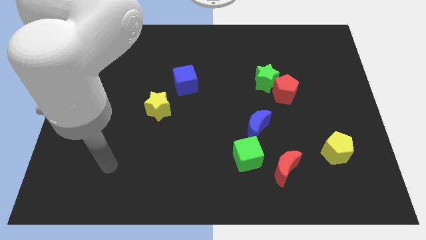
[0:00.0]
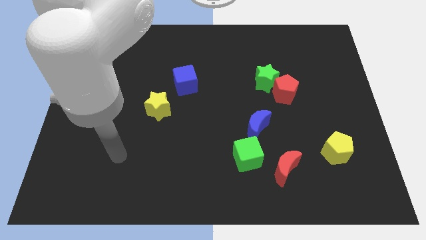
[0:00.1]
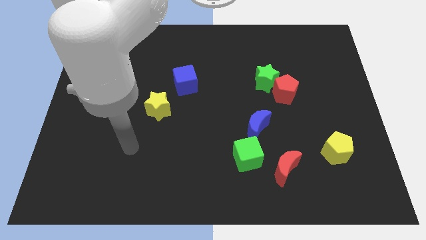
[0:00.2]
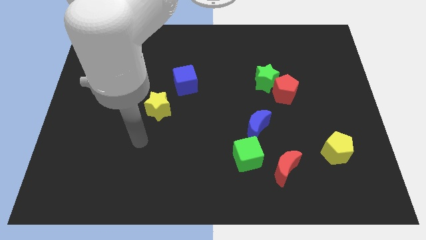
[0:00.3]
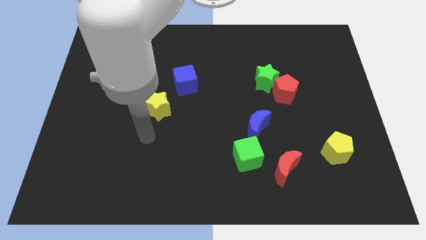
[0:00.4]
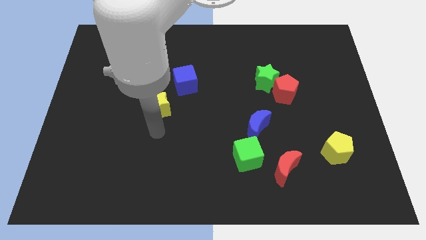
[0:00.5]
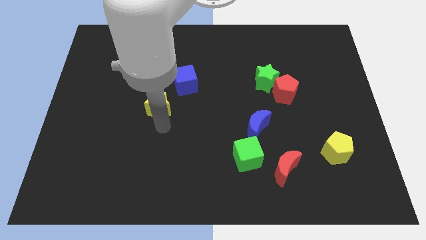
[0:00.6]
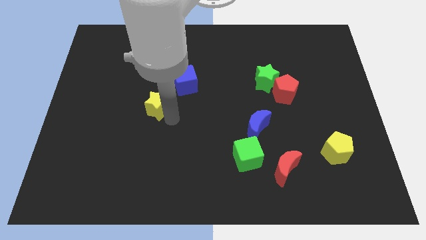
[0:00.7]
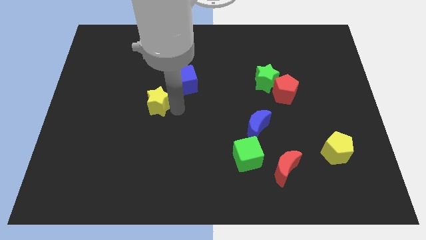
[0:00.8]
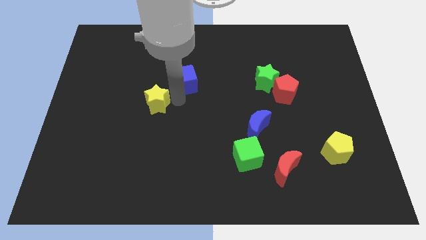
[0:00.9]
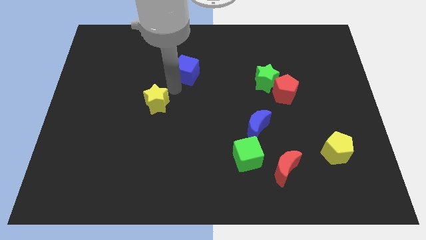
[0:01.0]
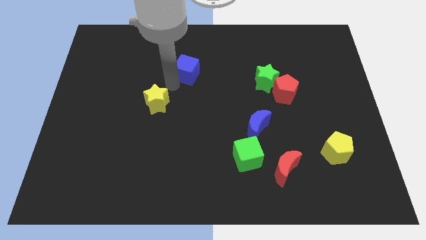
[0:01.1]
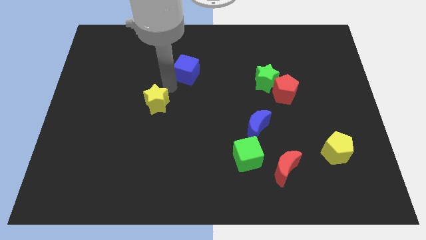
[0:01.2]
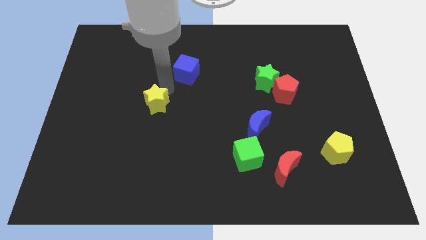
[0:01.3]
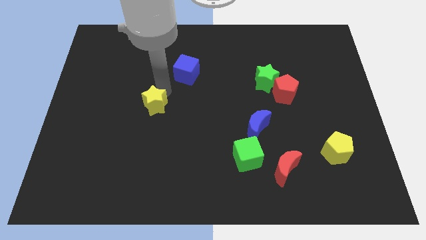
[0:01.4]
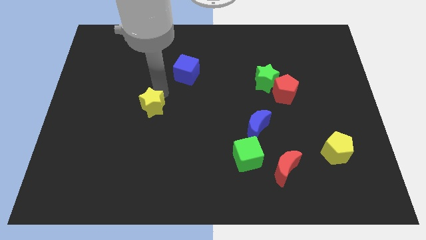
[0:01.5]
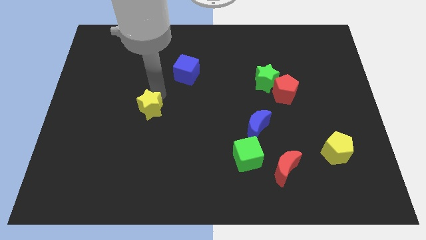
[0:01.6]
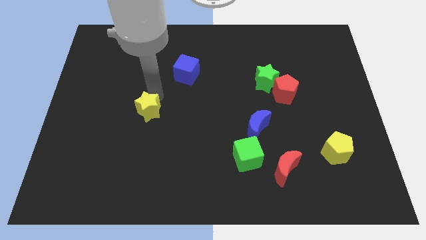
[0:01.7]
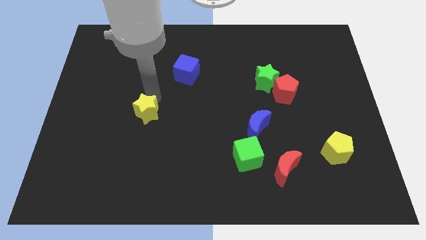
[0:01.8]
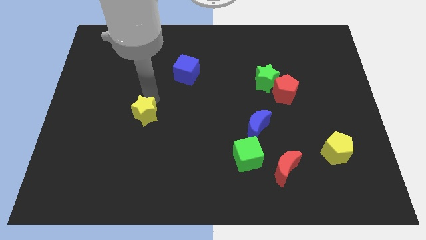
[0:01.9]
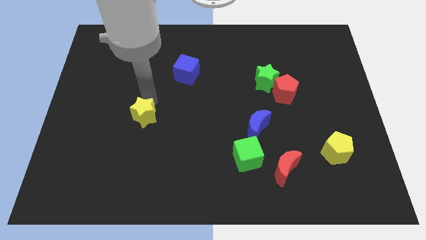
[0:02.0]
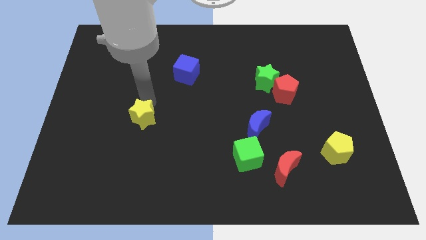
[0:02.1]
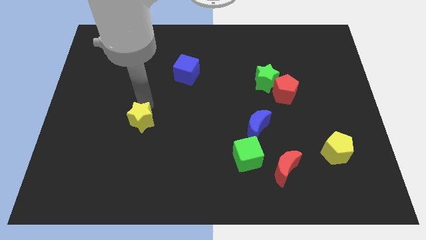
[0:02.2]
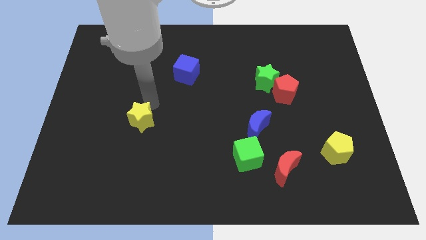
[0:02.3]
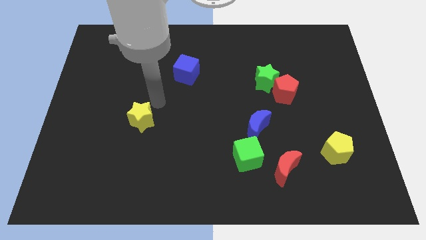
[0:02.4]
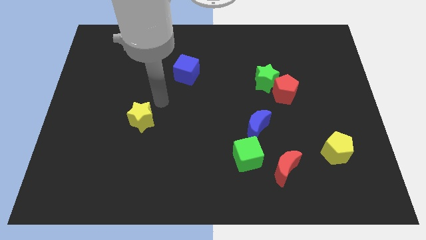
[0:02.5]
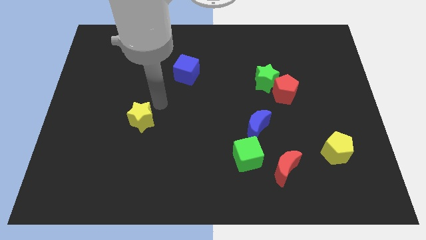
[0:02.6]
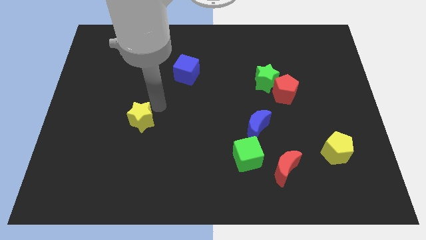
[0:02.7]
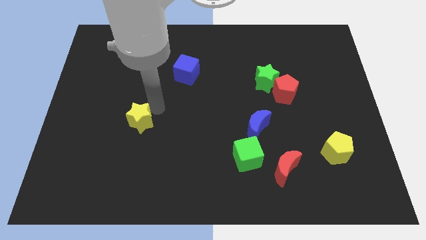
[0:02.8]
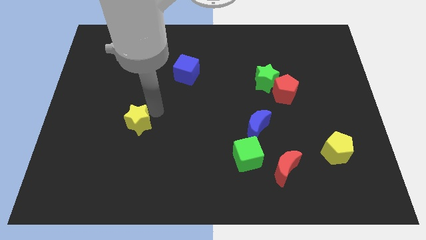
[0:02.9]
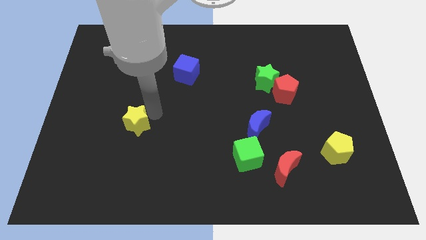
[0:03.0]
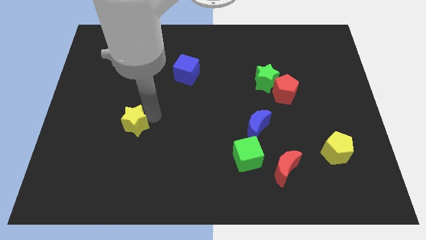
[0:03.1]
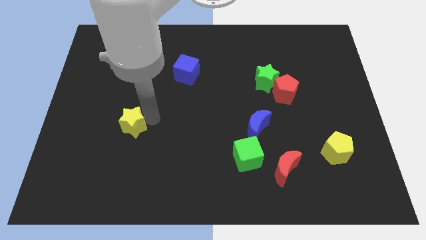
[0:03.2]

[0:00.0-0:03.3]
slide the yellow star a little diagonally down and to the left

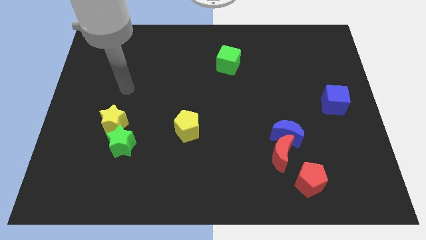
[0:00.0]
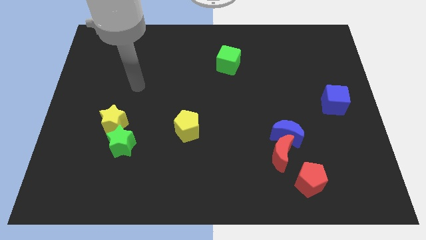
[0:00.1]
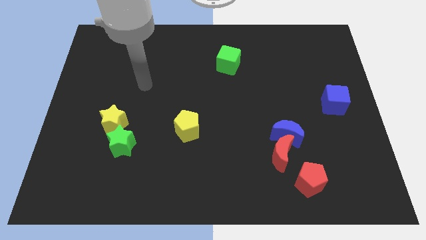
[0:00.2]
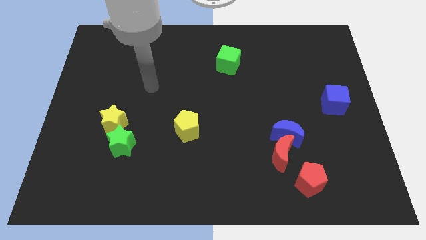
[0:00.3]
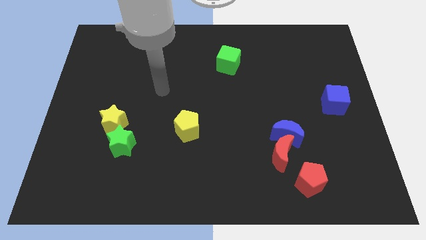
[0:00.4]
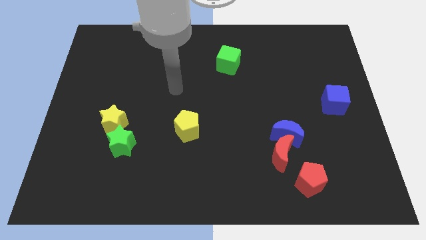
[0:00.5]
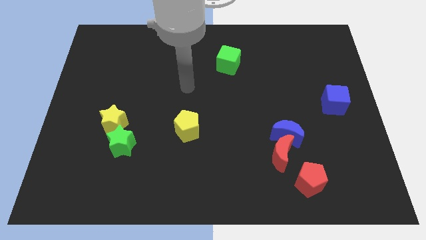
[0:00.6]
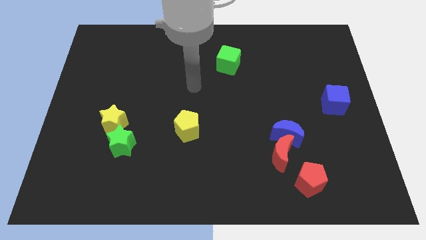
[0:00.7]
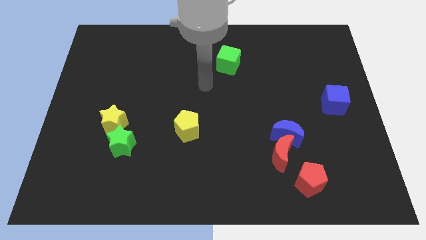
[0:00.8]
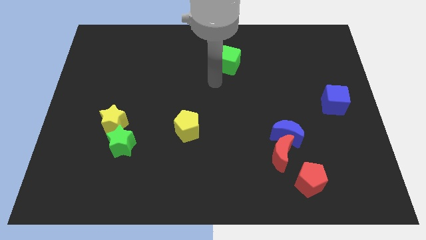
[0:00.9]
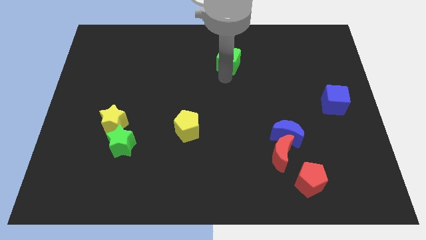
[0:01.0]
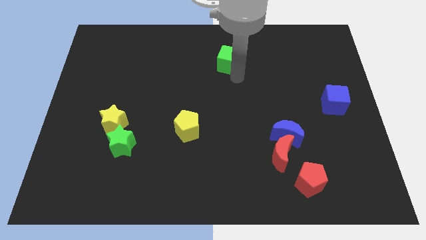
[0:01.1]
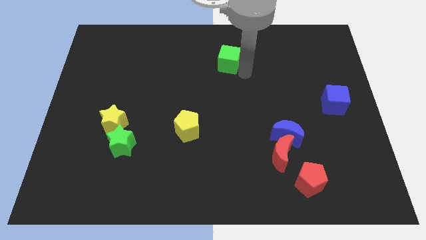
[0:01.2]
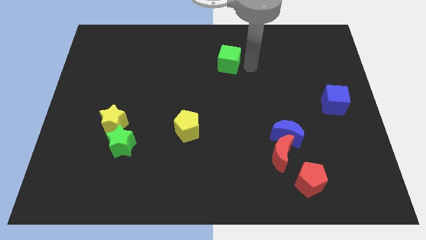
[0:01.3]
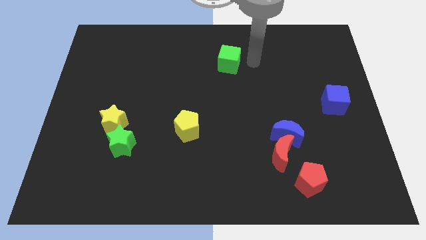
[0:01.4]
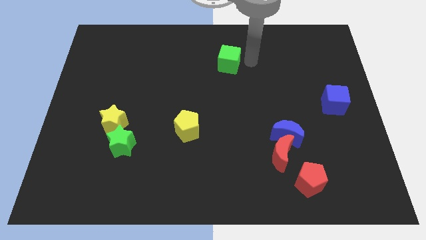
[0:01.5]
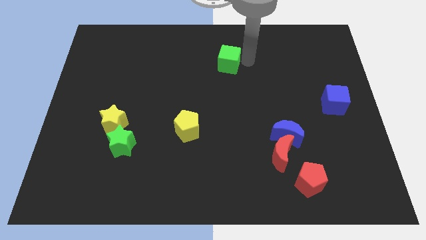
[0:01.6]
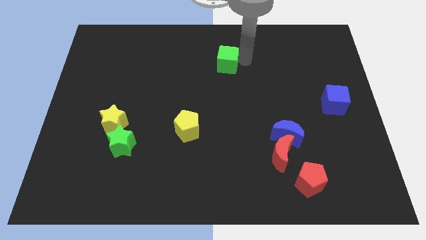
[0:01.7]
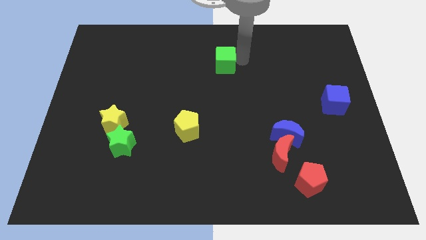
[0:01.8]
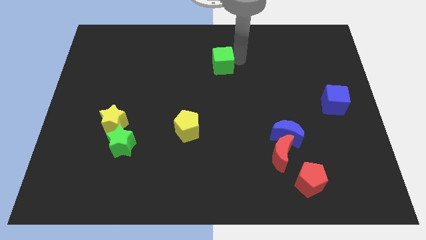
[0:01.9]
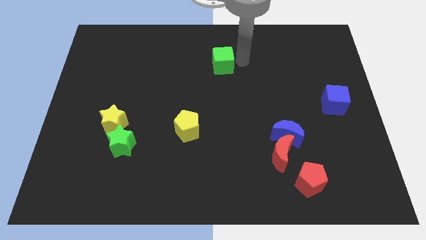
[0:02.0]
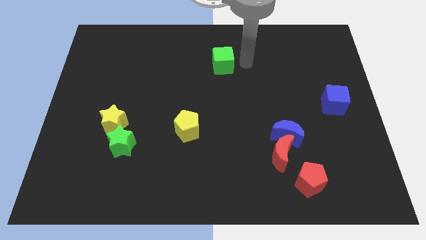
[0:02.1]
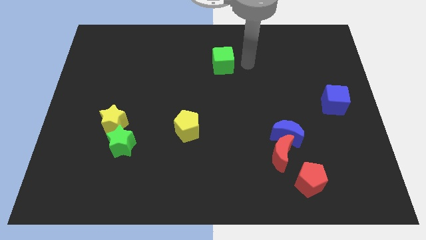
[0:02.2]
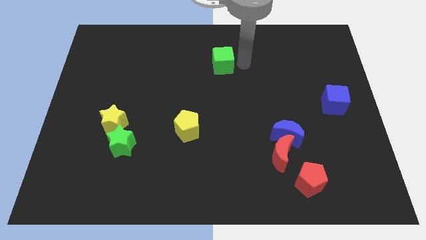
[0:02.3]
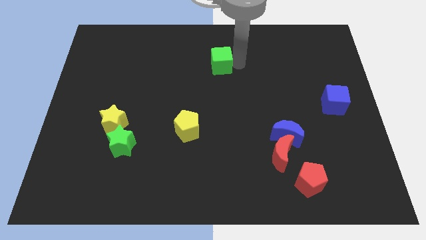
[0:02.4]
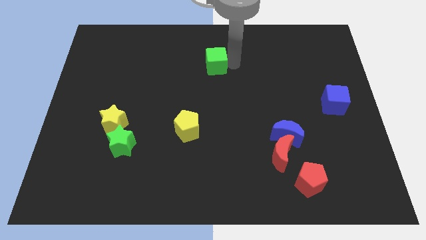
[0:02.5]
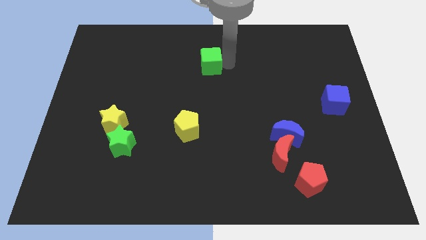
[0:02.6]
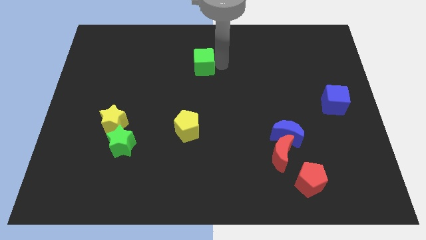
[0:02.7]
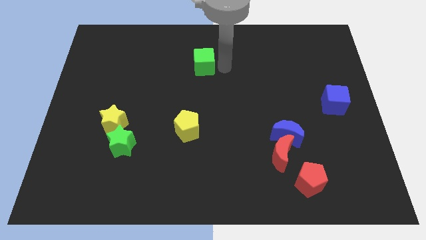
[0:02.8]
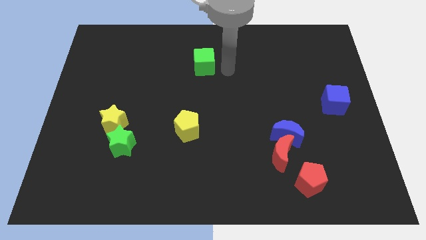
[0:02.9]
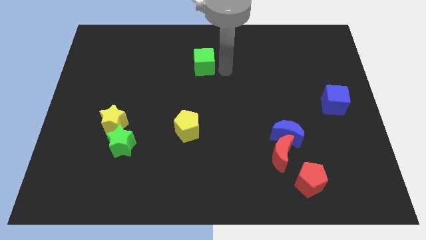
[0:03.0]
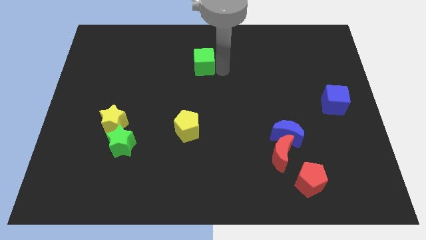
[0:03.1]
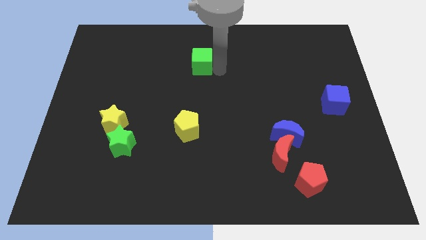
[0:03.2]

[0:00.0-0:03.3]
move the green cube left slightly

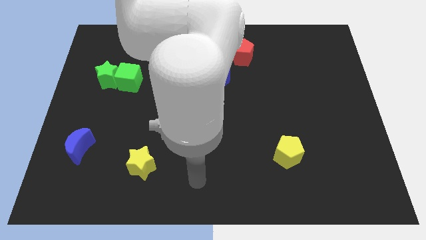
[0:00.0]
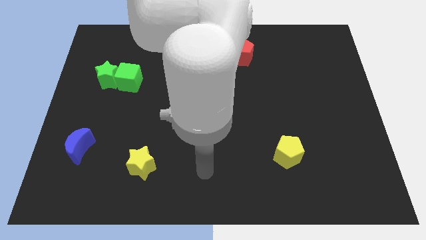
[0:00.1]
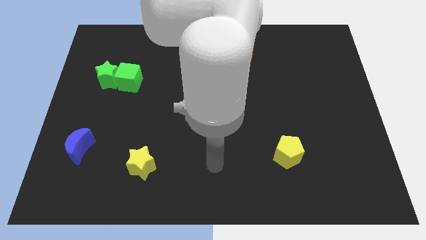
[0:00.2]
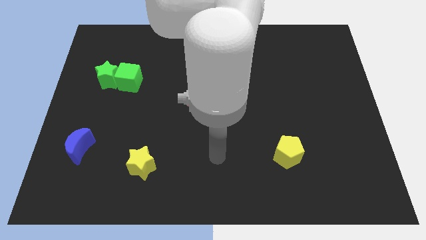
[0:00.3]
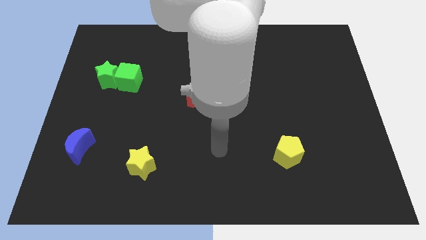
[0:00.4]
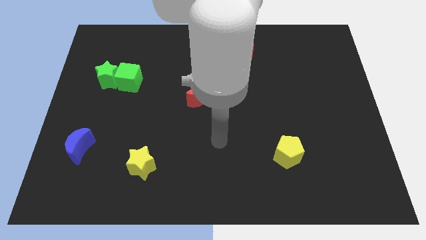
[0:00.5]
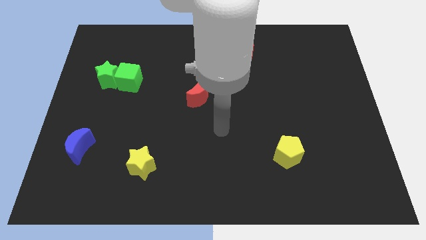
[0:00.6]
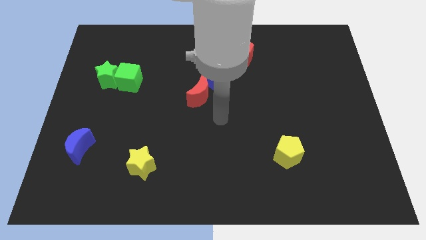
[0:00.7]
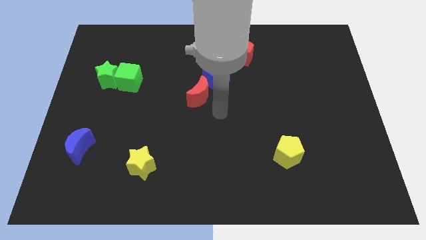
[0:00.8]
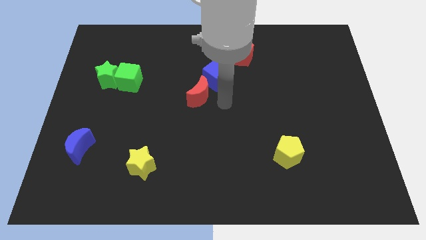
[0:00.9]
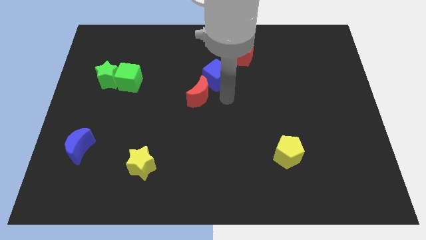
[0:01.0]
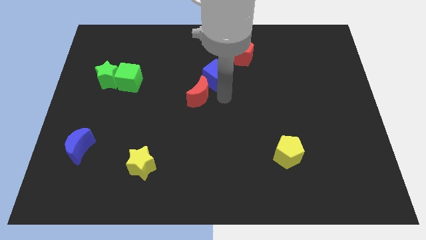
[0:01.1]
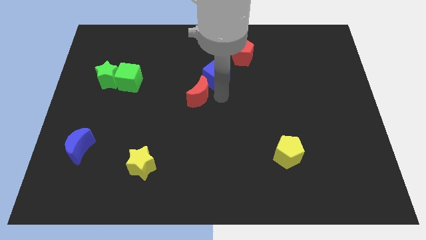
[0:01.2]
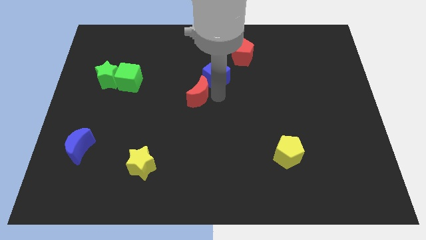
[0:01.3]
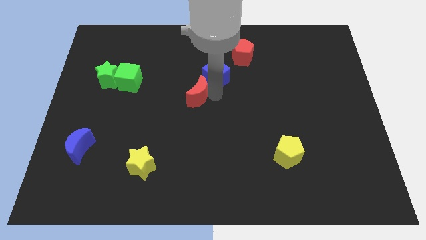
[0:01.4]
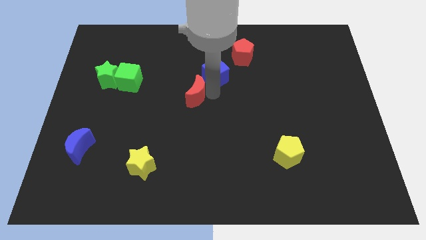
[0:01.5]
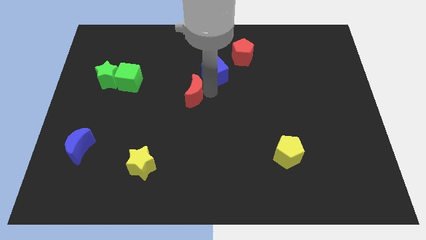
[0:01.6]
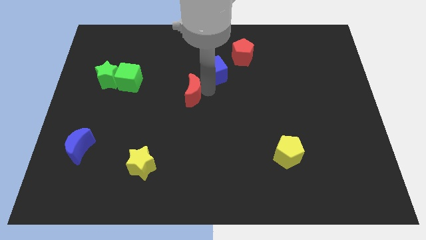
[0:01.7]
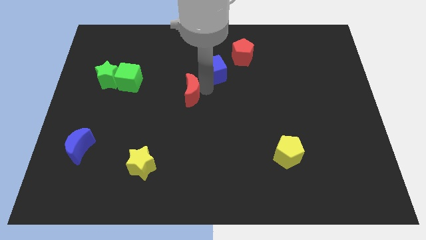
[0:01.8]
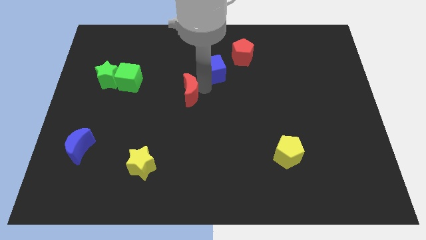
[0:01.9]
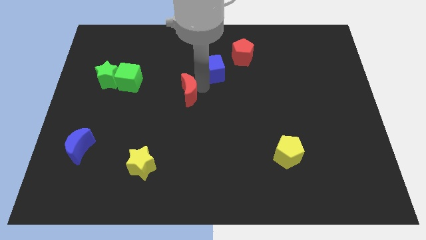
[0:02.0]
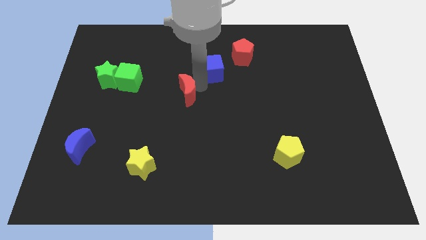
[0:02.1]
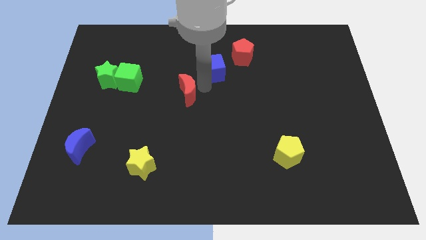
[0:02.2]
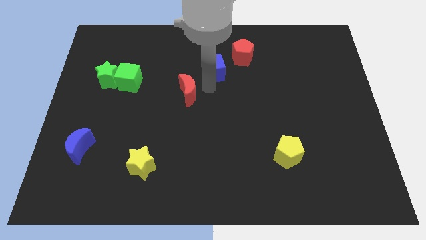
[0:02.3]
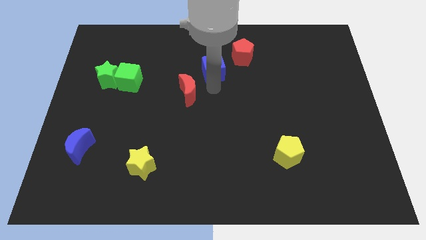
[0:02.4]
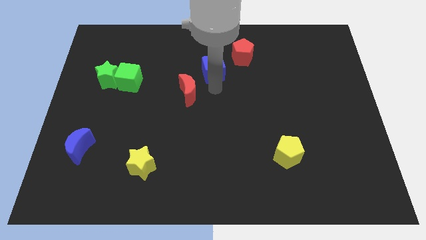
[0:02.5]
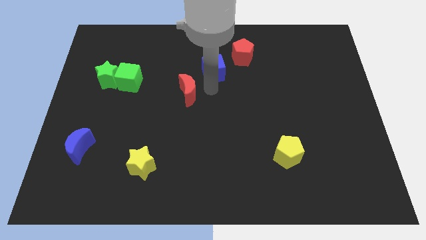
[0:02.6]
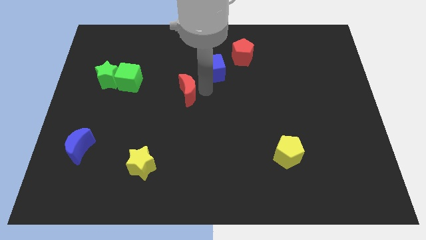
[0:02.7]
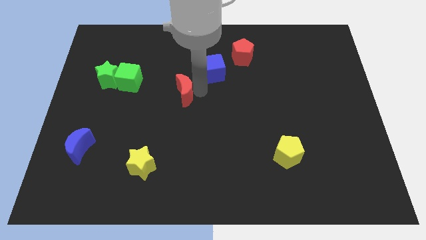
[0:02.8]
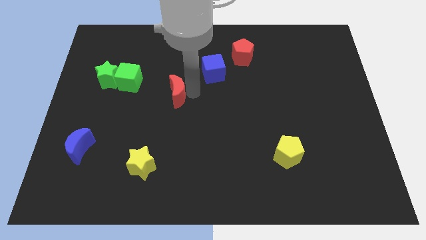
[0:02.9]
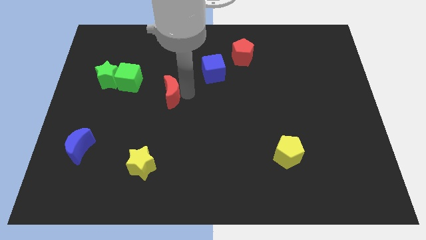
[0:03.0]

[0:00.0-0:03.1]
push the red moon a little bit to the left
